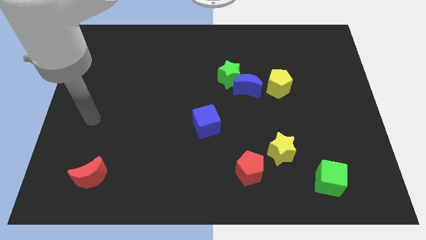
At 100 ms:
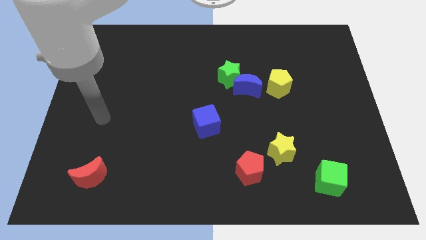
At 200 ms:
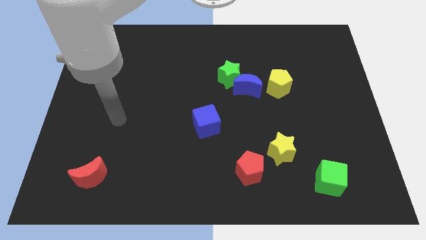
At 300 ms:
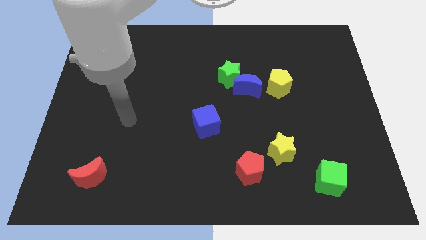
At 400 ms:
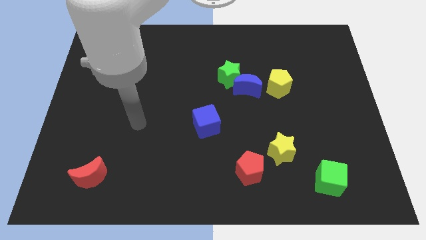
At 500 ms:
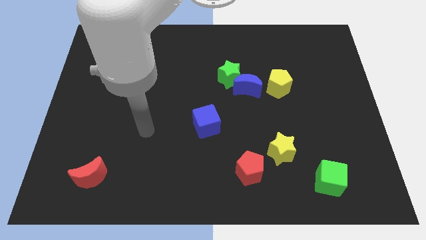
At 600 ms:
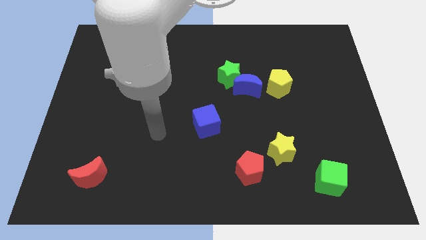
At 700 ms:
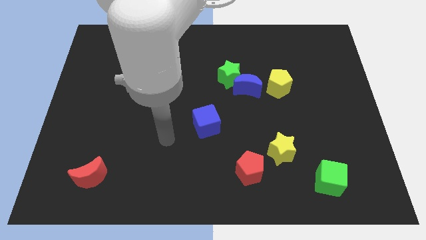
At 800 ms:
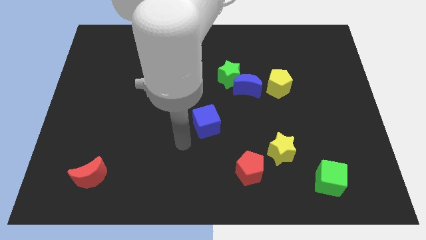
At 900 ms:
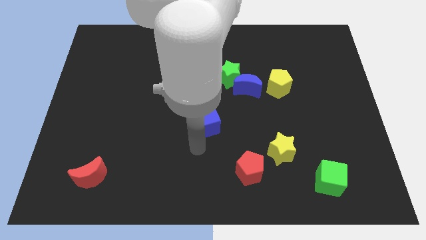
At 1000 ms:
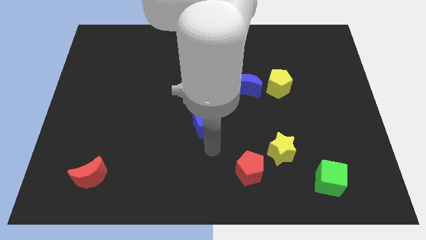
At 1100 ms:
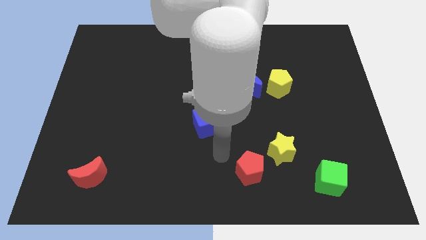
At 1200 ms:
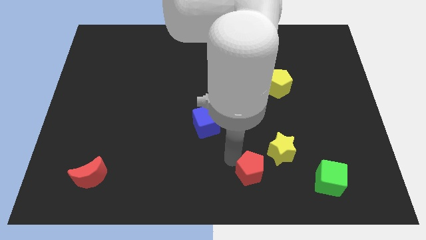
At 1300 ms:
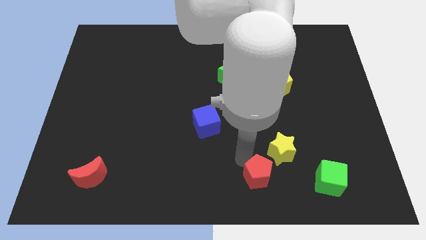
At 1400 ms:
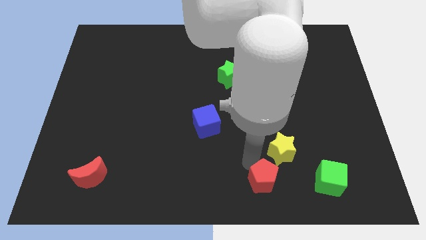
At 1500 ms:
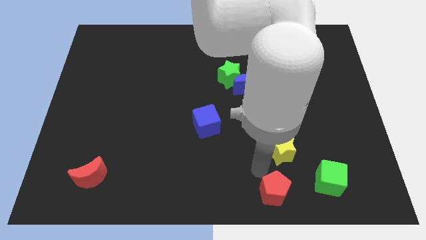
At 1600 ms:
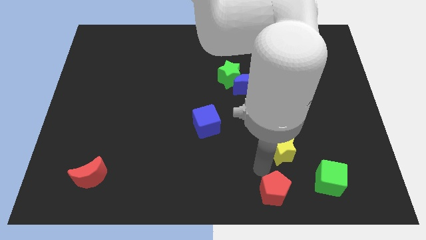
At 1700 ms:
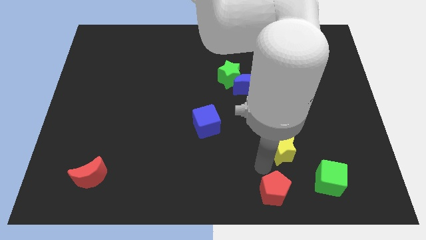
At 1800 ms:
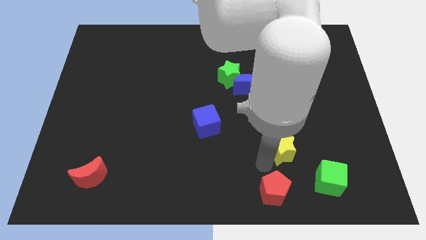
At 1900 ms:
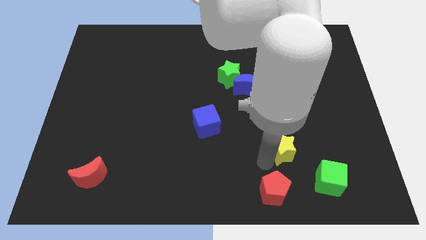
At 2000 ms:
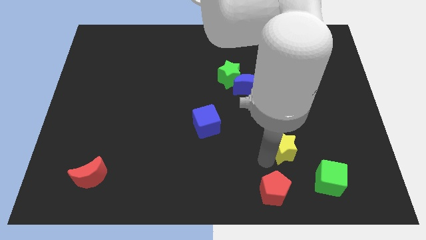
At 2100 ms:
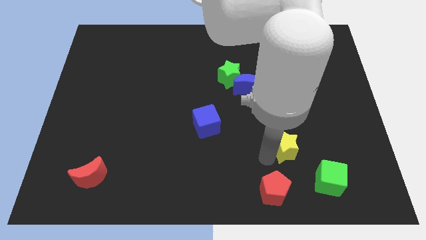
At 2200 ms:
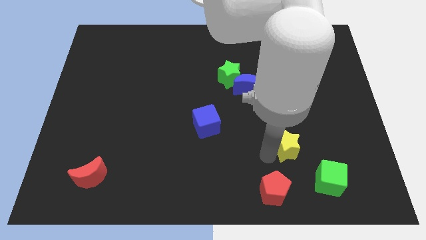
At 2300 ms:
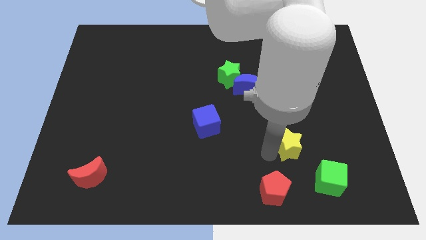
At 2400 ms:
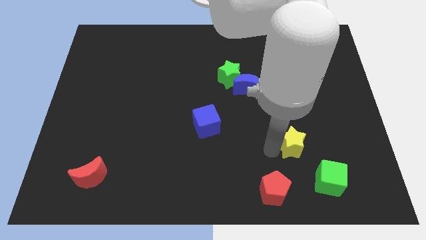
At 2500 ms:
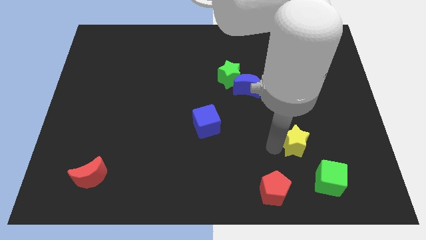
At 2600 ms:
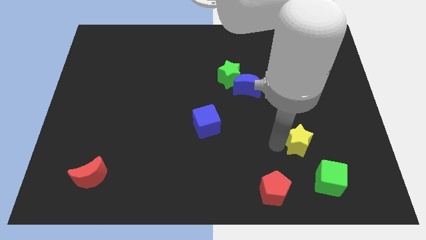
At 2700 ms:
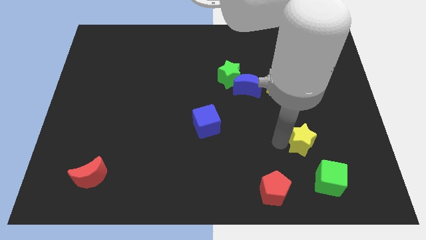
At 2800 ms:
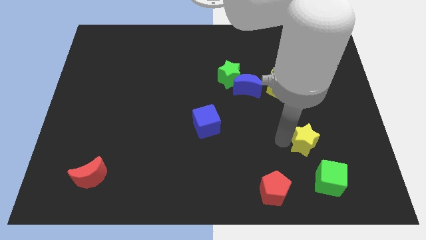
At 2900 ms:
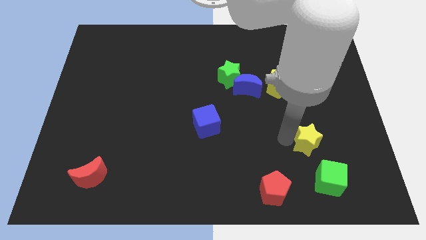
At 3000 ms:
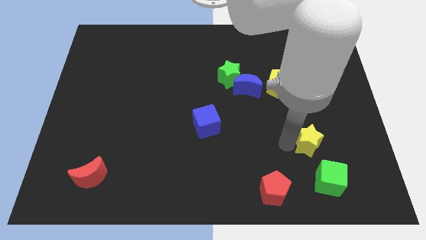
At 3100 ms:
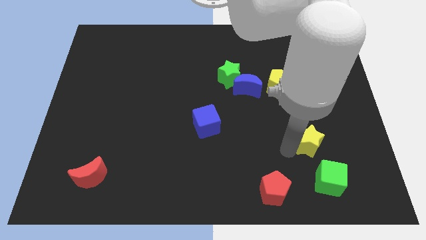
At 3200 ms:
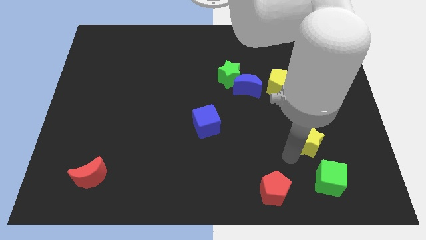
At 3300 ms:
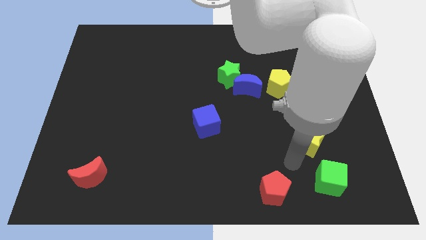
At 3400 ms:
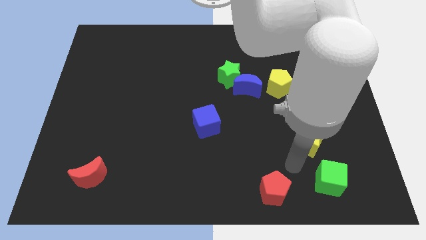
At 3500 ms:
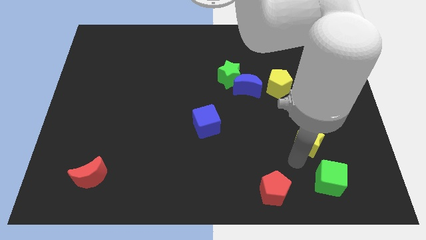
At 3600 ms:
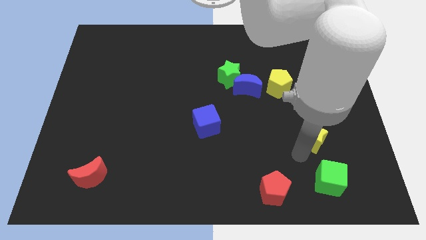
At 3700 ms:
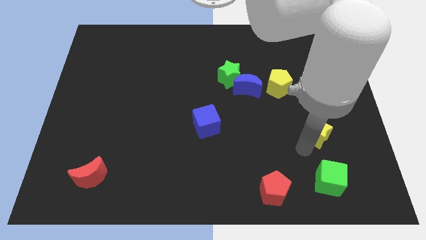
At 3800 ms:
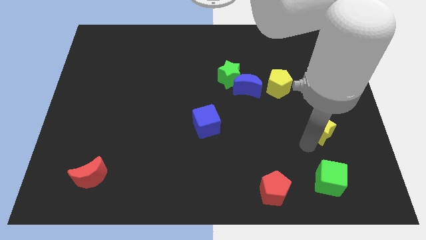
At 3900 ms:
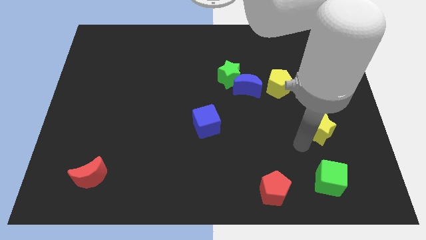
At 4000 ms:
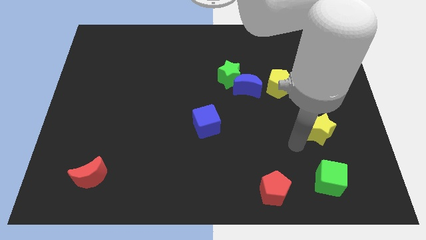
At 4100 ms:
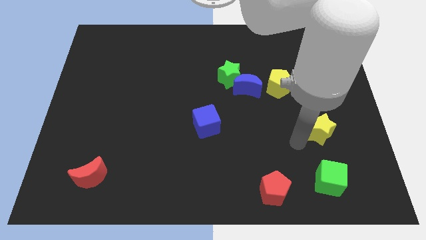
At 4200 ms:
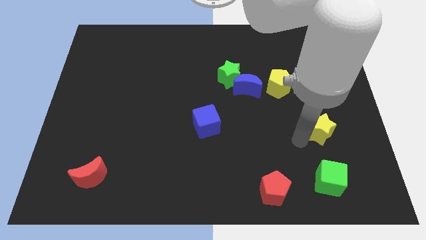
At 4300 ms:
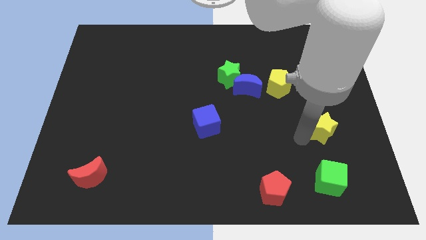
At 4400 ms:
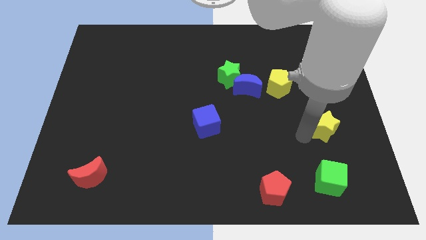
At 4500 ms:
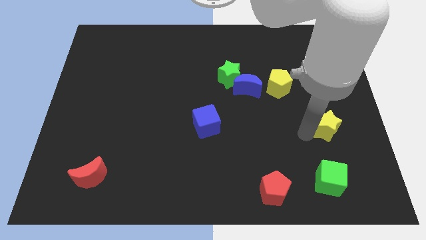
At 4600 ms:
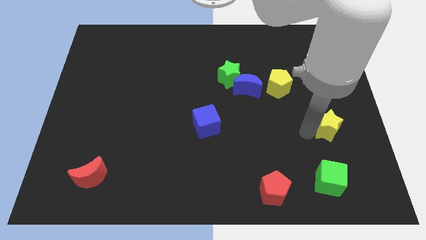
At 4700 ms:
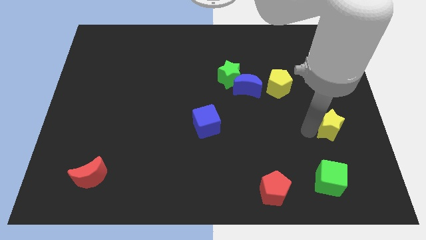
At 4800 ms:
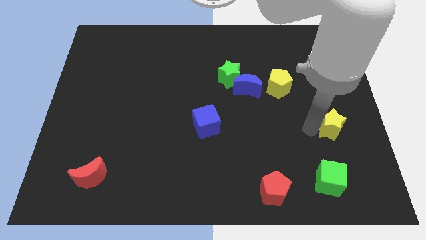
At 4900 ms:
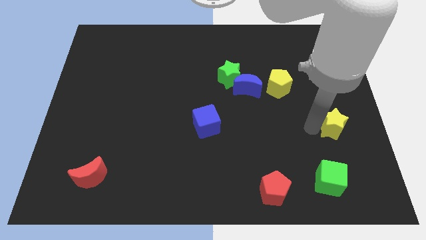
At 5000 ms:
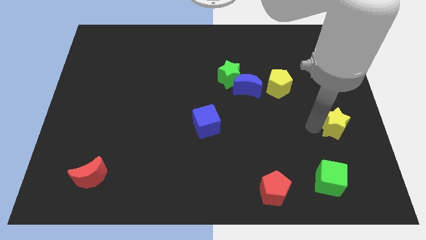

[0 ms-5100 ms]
push the yellow star to the right side
